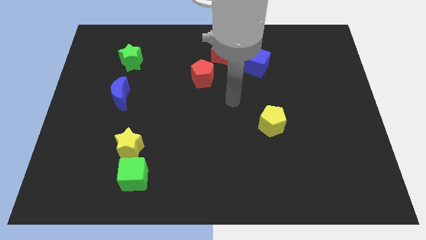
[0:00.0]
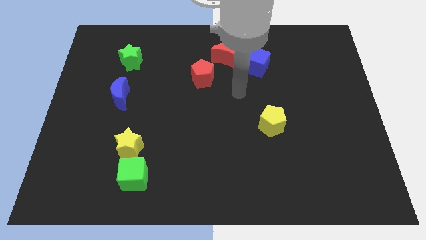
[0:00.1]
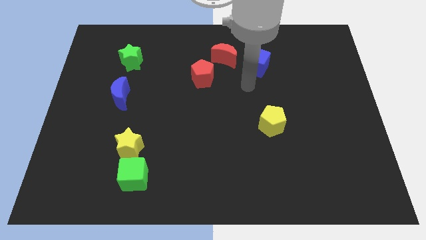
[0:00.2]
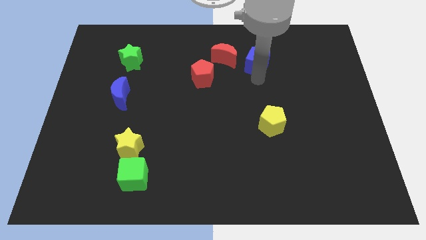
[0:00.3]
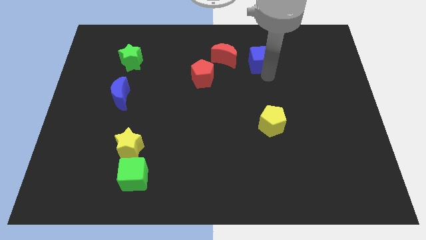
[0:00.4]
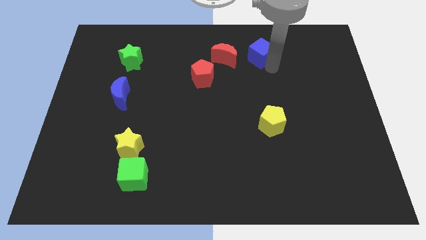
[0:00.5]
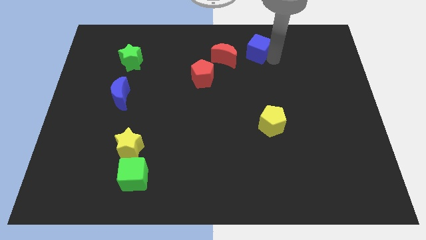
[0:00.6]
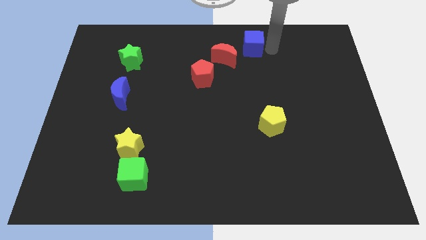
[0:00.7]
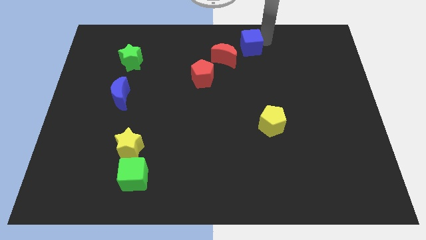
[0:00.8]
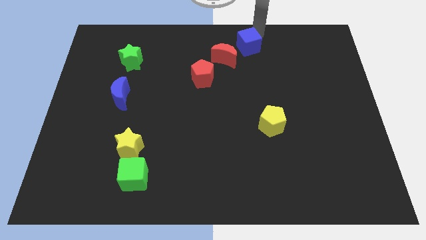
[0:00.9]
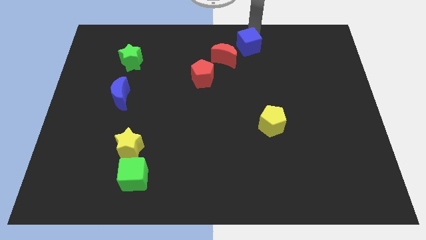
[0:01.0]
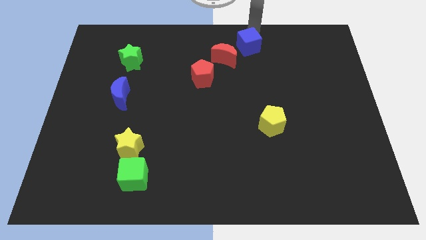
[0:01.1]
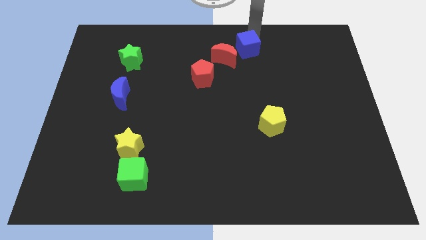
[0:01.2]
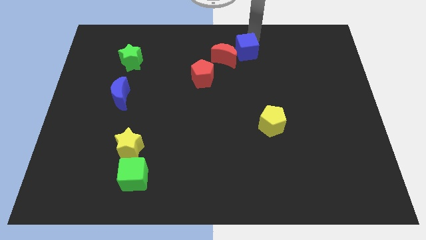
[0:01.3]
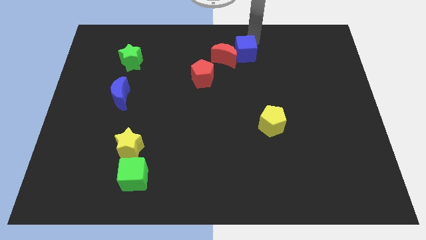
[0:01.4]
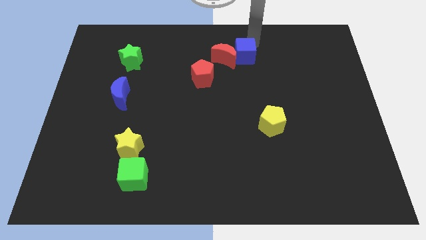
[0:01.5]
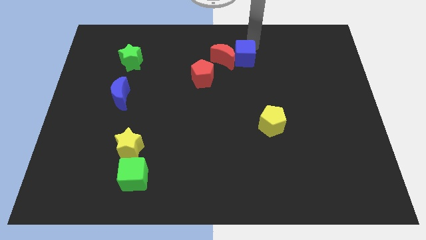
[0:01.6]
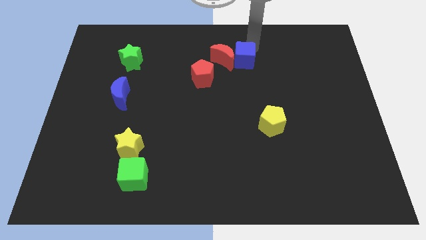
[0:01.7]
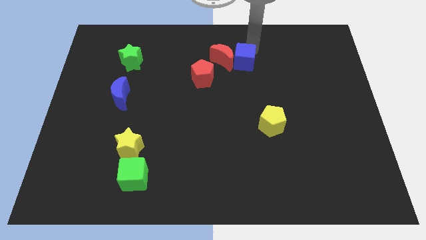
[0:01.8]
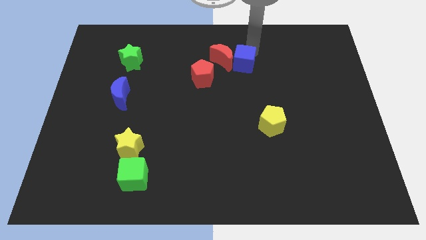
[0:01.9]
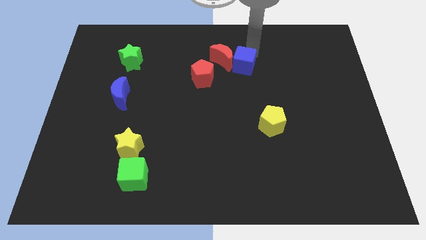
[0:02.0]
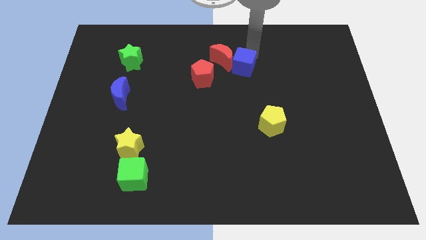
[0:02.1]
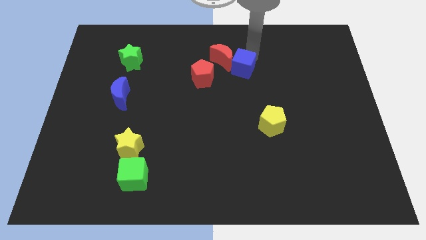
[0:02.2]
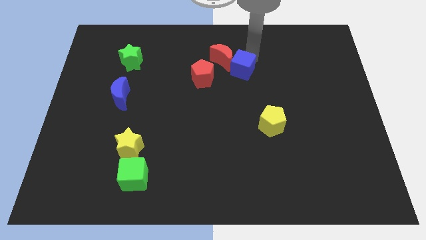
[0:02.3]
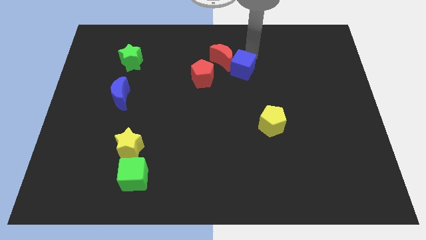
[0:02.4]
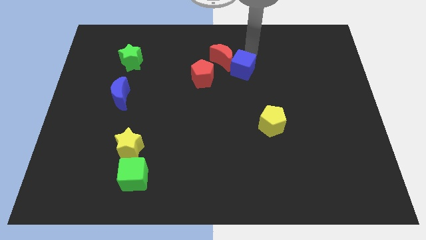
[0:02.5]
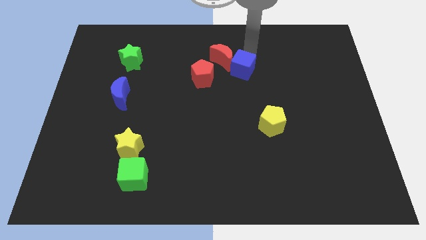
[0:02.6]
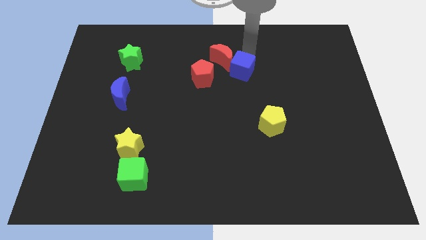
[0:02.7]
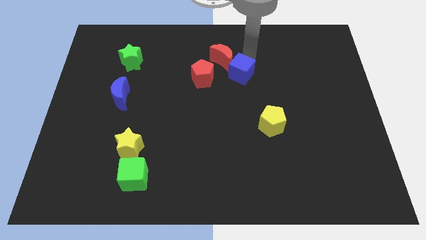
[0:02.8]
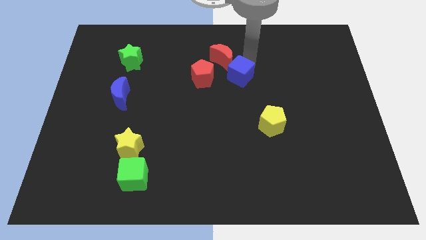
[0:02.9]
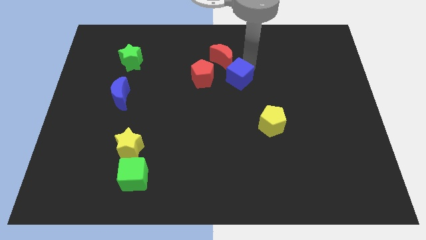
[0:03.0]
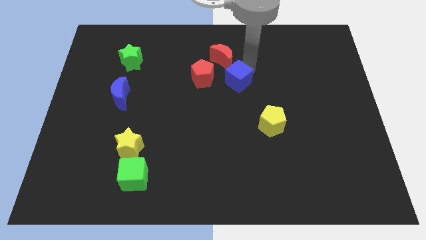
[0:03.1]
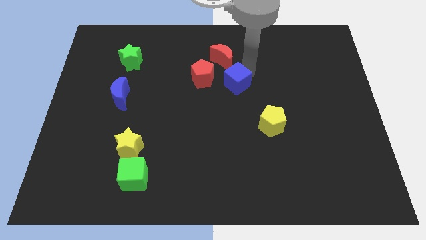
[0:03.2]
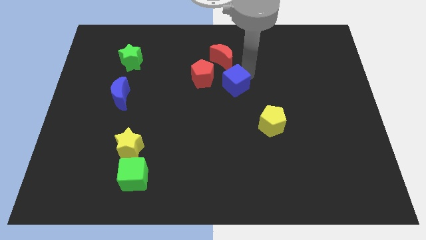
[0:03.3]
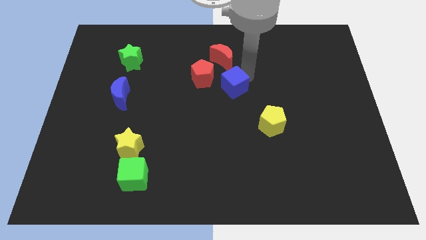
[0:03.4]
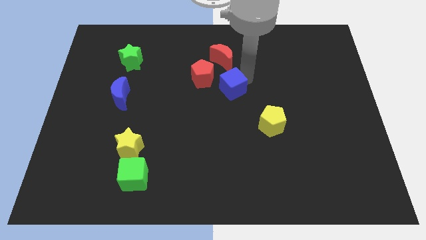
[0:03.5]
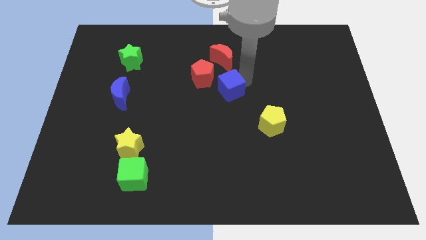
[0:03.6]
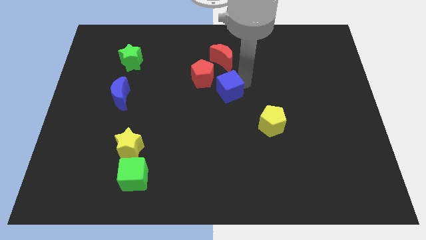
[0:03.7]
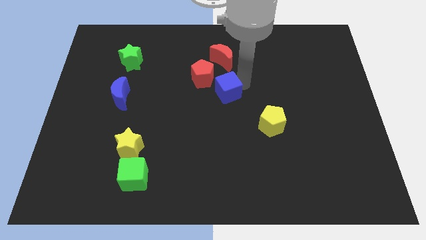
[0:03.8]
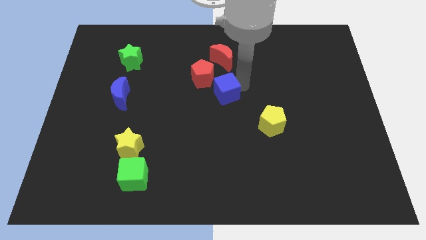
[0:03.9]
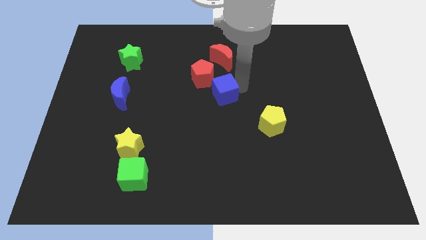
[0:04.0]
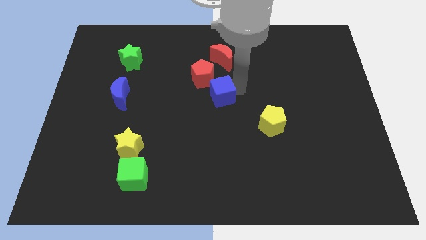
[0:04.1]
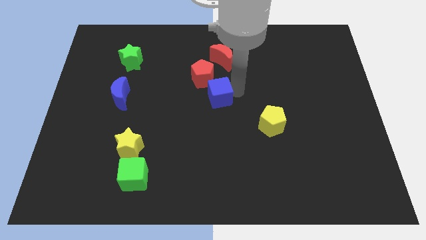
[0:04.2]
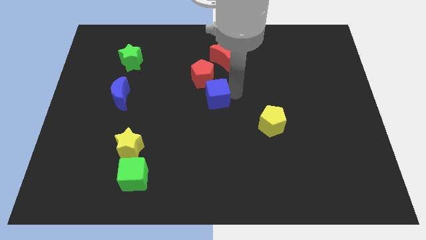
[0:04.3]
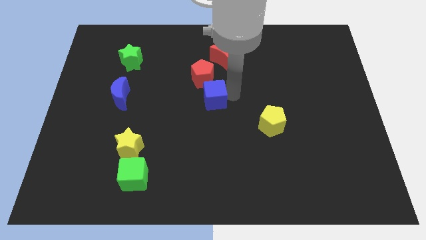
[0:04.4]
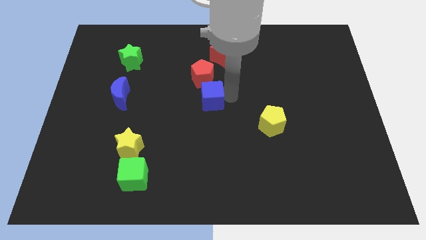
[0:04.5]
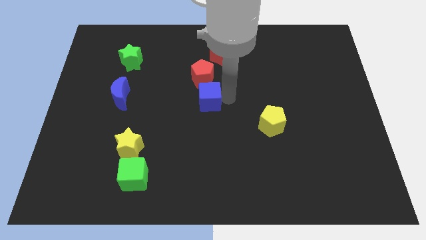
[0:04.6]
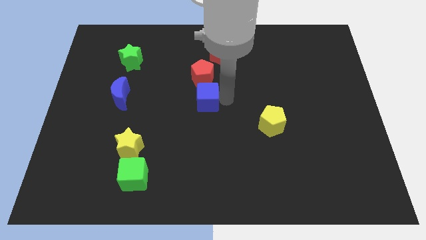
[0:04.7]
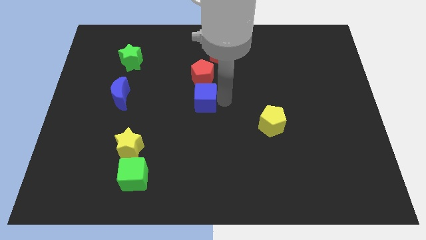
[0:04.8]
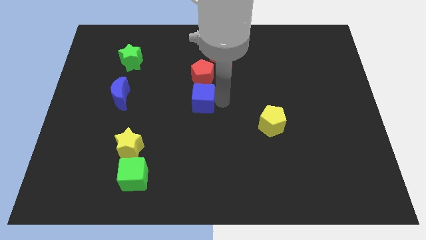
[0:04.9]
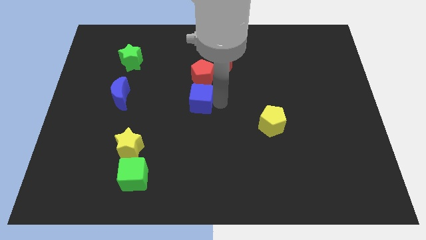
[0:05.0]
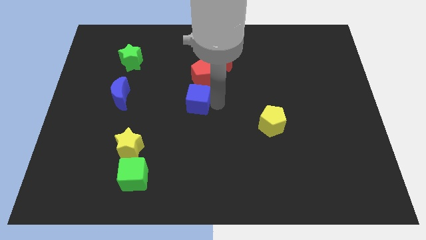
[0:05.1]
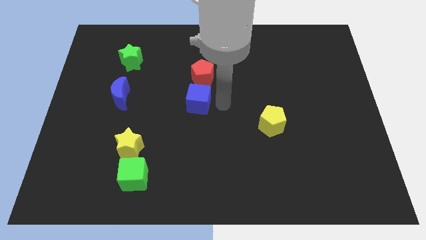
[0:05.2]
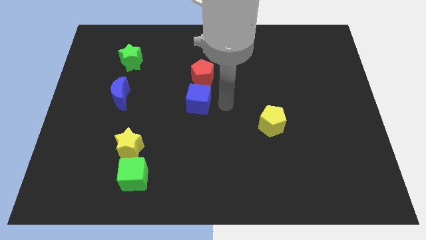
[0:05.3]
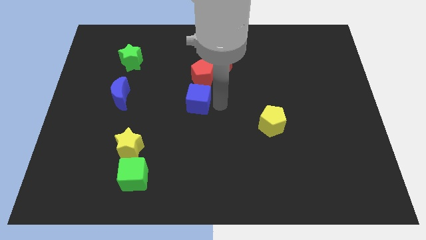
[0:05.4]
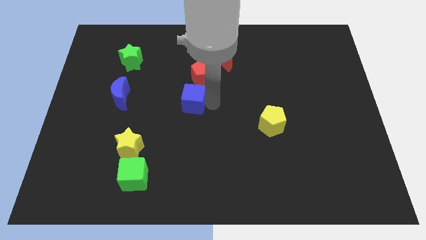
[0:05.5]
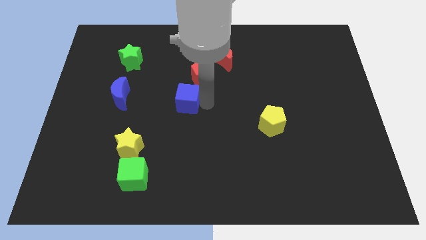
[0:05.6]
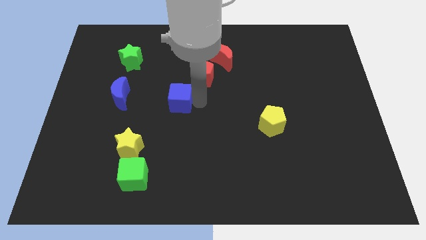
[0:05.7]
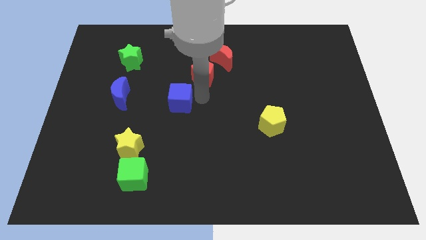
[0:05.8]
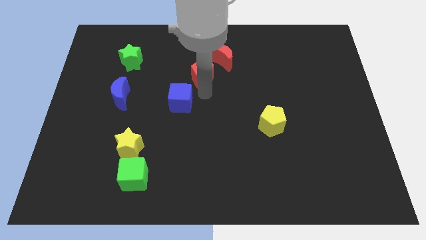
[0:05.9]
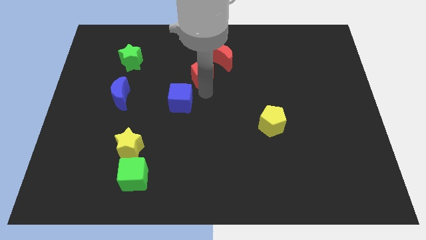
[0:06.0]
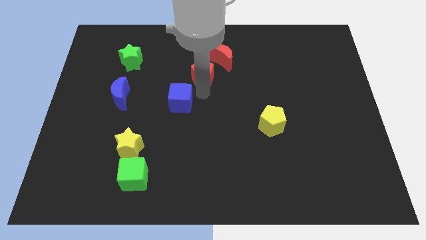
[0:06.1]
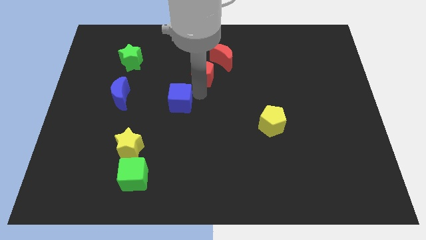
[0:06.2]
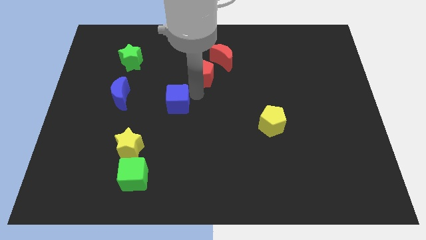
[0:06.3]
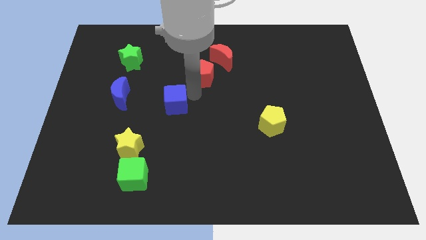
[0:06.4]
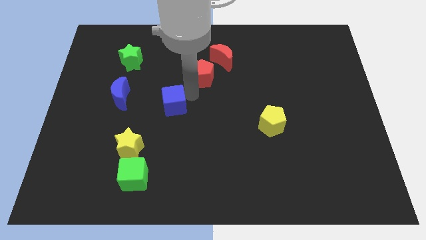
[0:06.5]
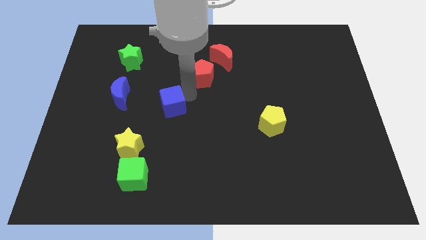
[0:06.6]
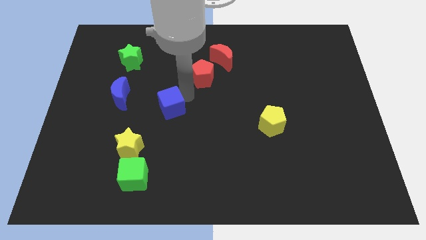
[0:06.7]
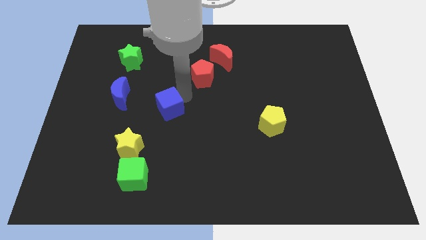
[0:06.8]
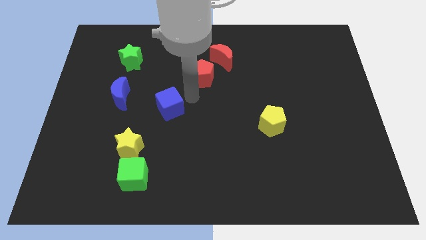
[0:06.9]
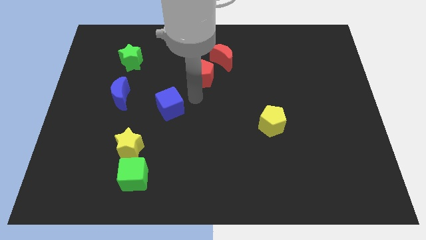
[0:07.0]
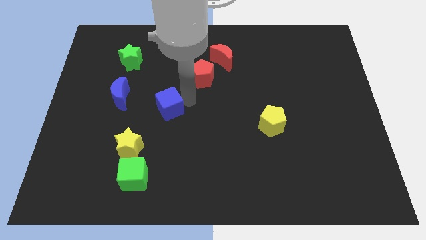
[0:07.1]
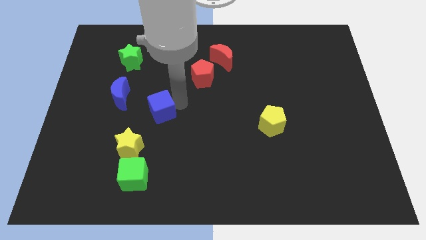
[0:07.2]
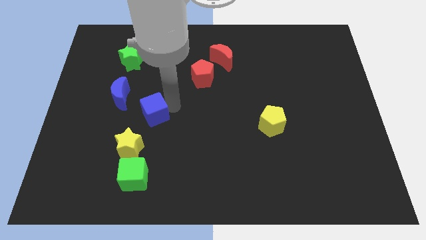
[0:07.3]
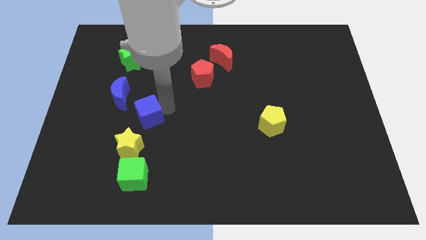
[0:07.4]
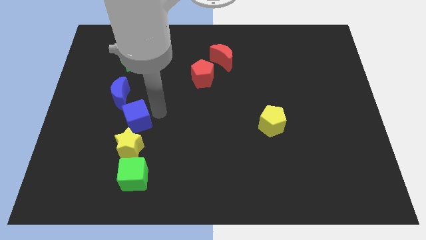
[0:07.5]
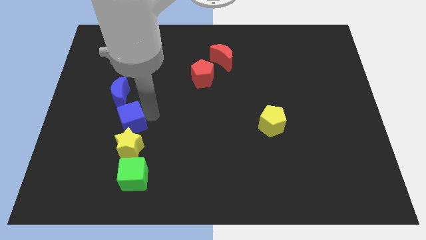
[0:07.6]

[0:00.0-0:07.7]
slide the blue cube to the top left of the yellow star
